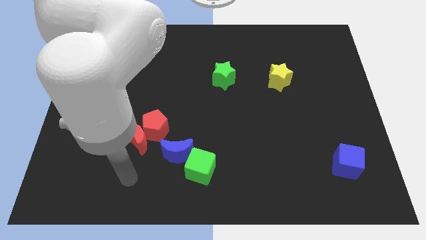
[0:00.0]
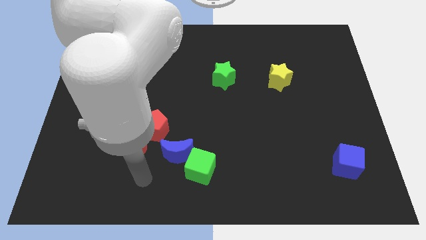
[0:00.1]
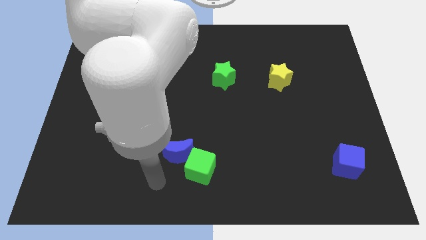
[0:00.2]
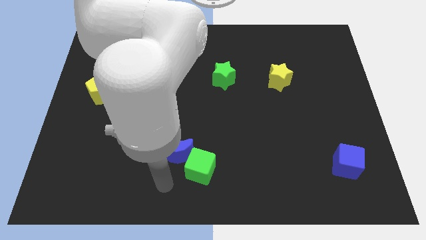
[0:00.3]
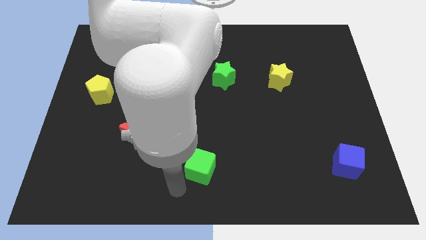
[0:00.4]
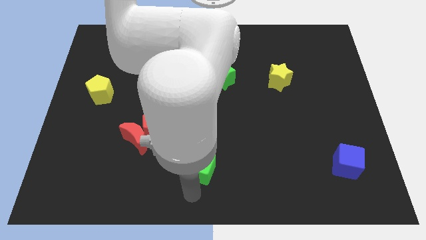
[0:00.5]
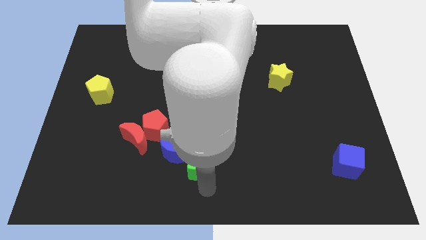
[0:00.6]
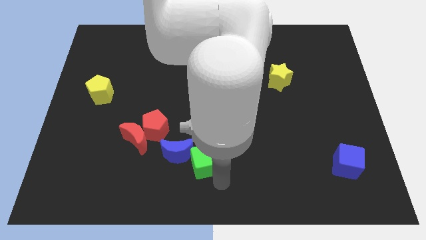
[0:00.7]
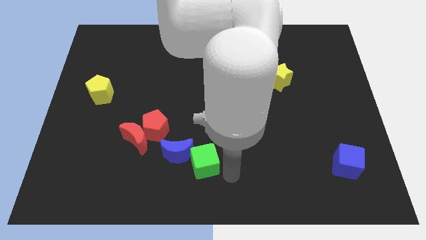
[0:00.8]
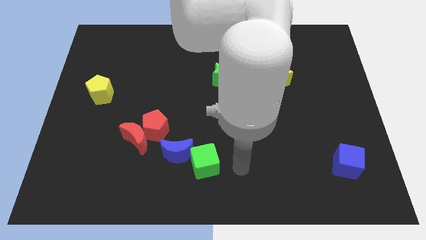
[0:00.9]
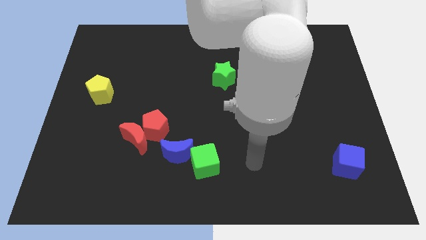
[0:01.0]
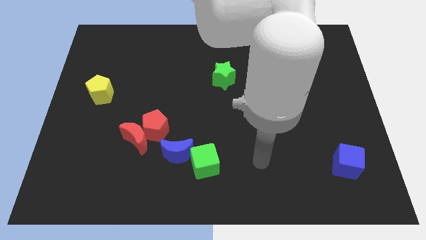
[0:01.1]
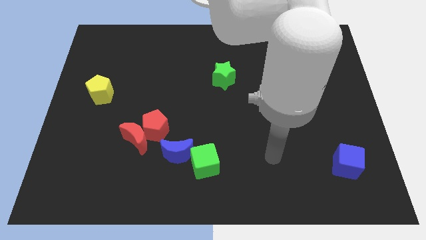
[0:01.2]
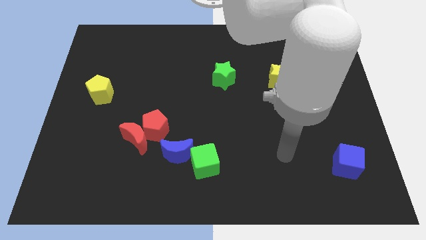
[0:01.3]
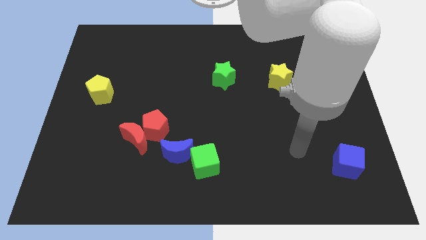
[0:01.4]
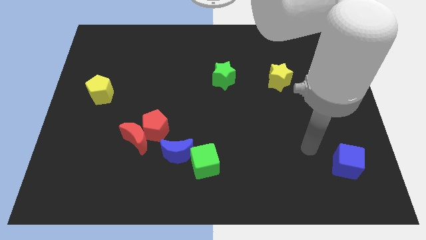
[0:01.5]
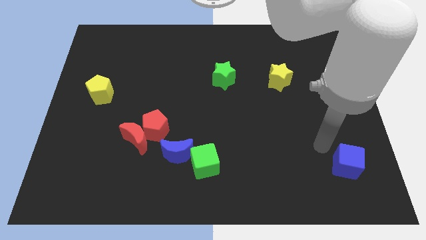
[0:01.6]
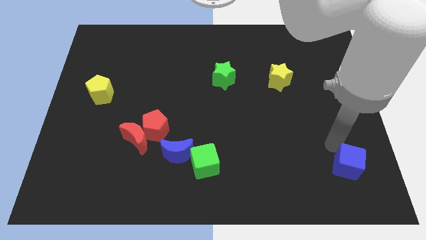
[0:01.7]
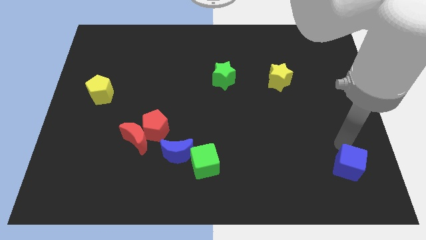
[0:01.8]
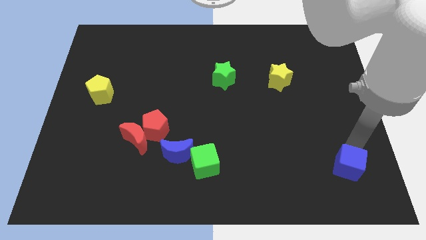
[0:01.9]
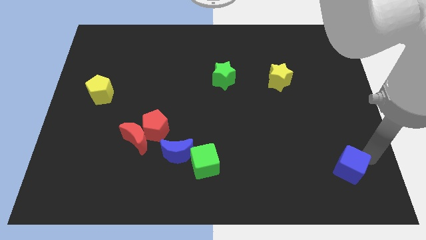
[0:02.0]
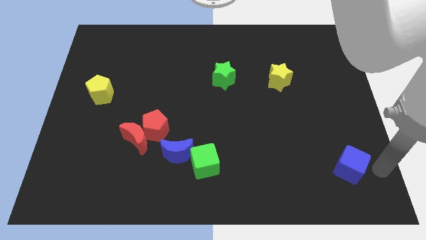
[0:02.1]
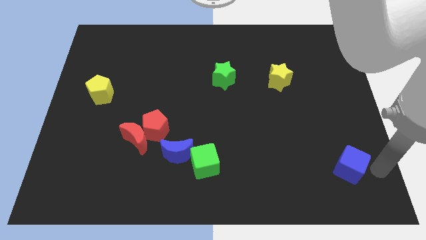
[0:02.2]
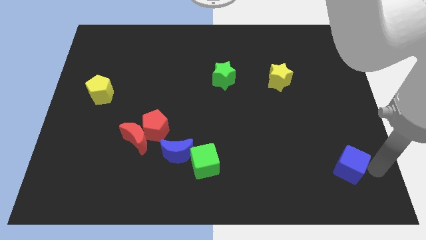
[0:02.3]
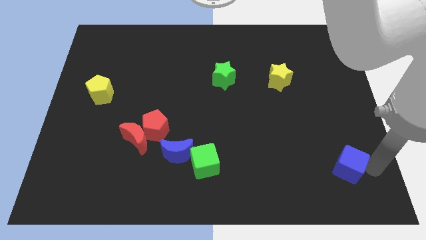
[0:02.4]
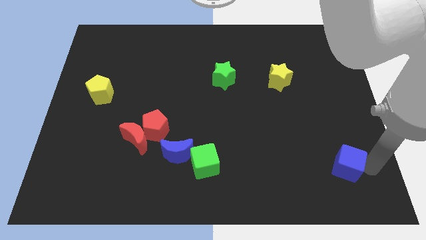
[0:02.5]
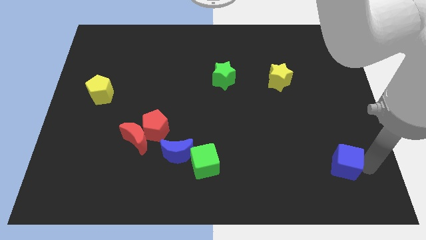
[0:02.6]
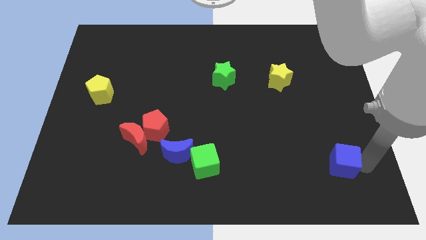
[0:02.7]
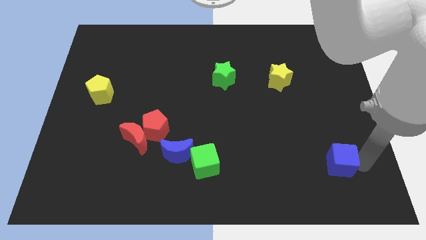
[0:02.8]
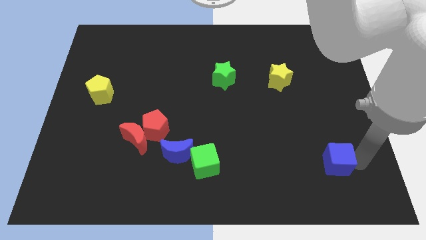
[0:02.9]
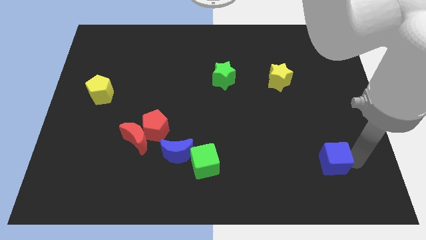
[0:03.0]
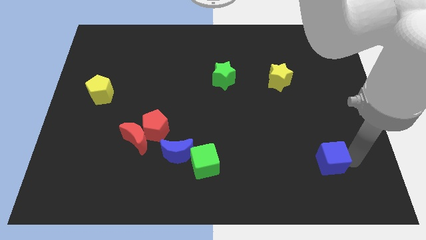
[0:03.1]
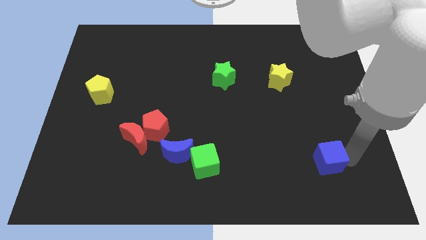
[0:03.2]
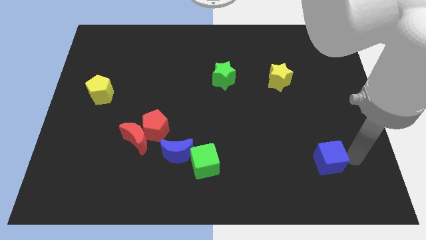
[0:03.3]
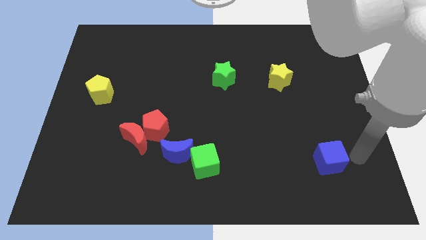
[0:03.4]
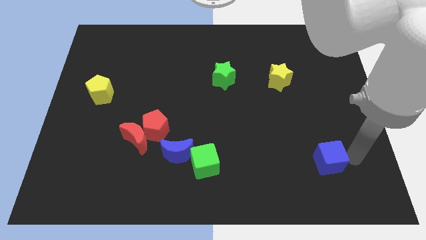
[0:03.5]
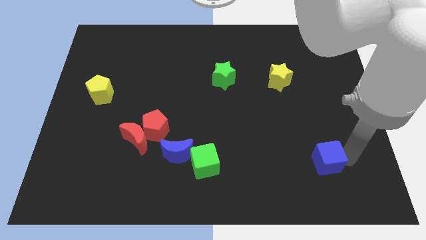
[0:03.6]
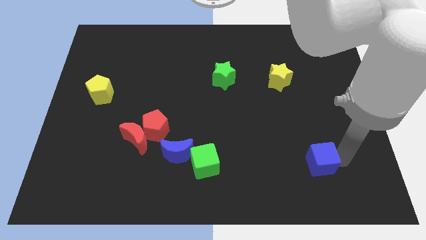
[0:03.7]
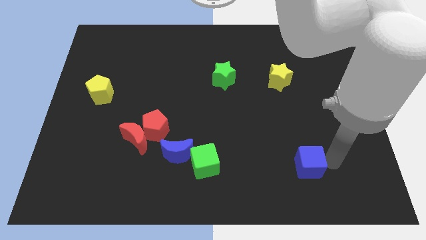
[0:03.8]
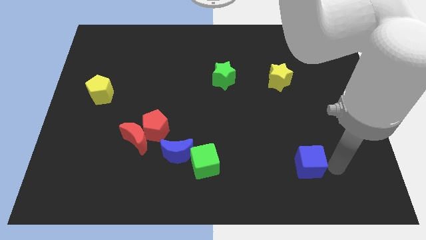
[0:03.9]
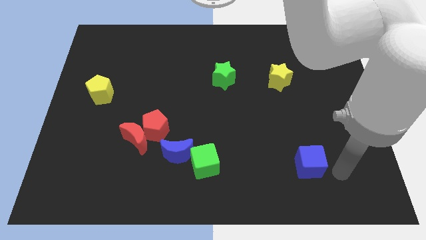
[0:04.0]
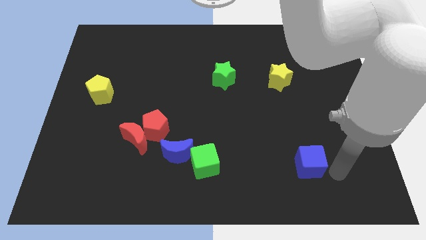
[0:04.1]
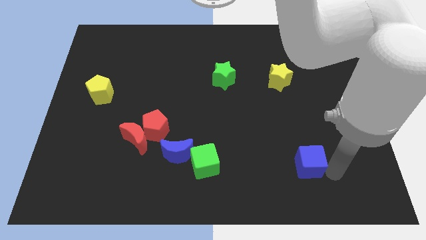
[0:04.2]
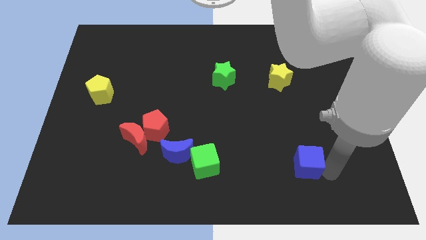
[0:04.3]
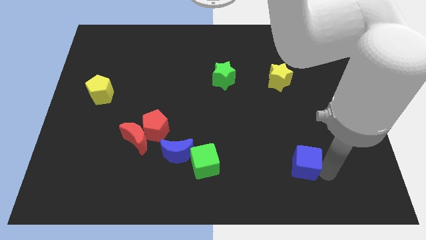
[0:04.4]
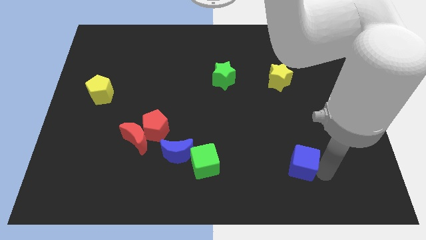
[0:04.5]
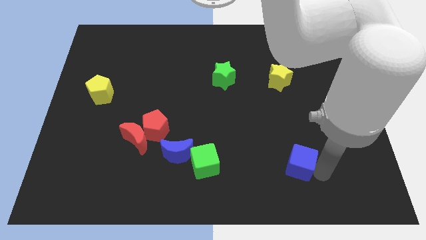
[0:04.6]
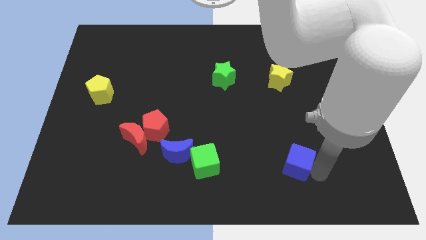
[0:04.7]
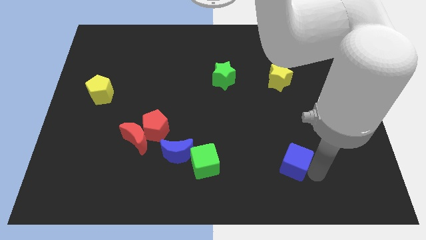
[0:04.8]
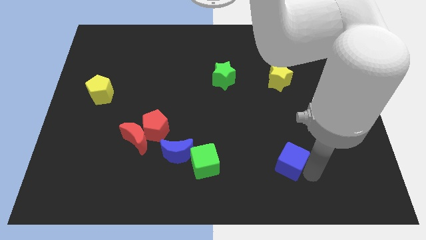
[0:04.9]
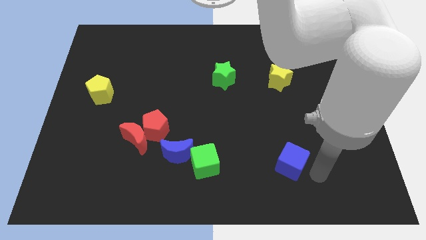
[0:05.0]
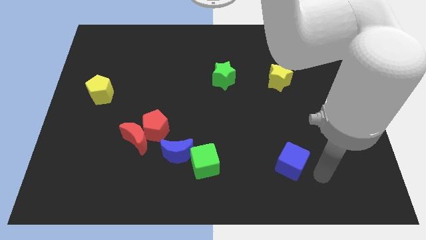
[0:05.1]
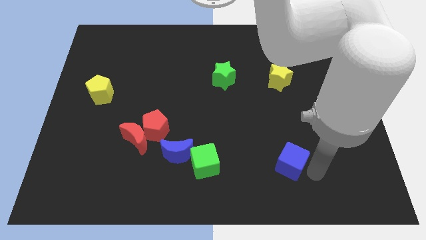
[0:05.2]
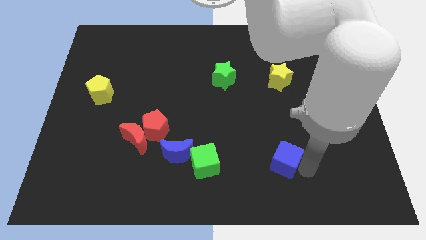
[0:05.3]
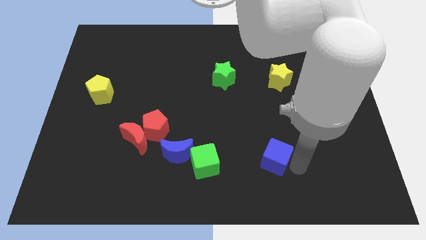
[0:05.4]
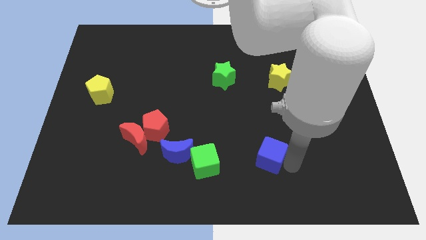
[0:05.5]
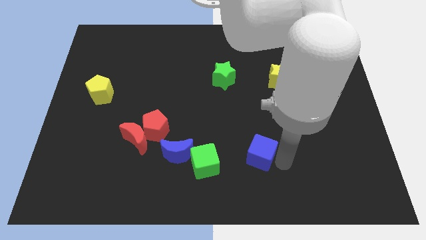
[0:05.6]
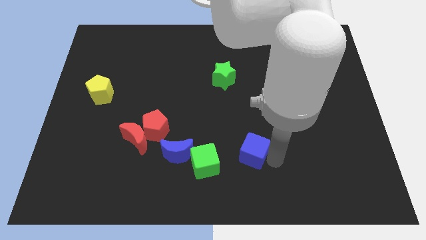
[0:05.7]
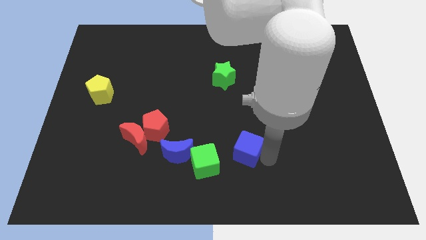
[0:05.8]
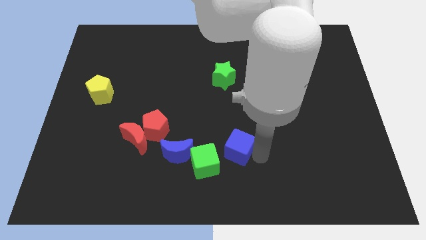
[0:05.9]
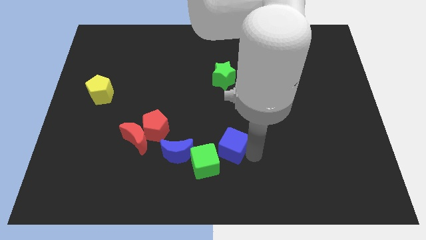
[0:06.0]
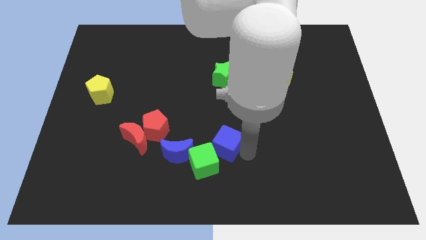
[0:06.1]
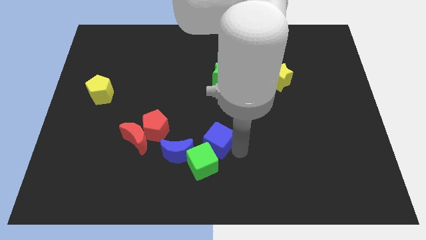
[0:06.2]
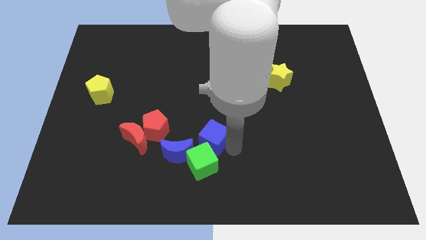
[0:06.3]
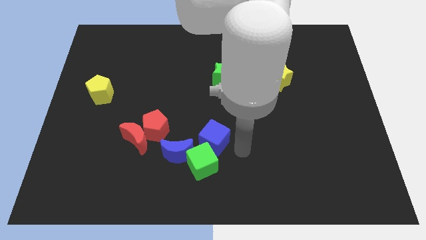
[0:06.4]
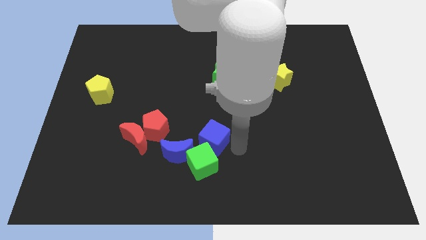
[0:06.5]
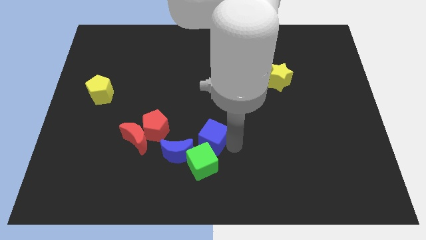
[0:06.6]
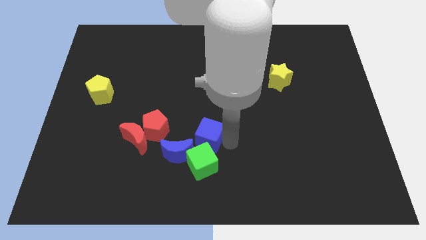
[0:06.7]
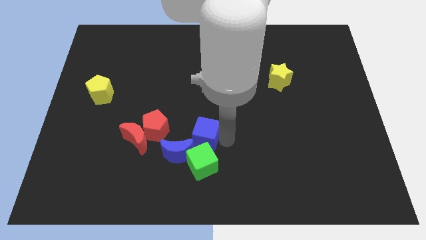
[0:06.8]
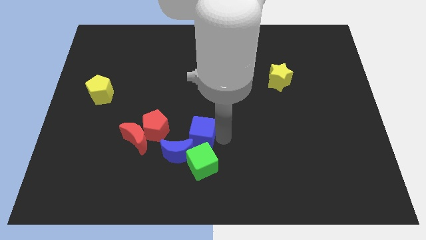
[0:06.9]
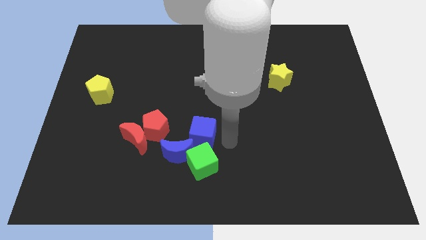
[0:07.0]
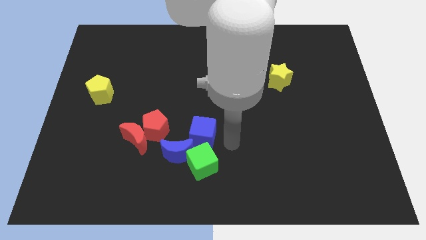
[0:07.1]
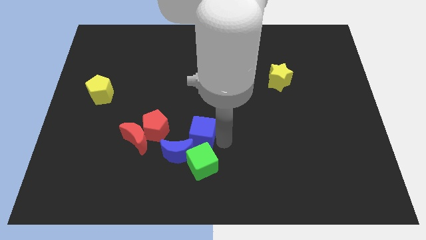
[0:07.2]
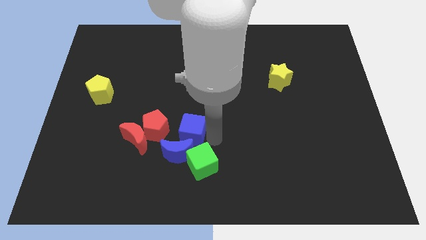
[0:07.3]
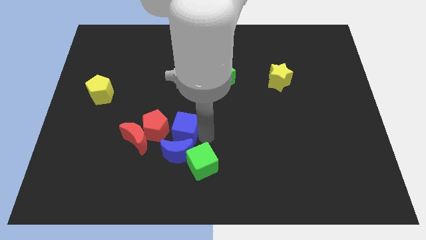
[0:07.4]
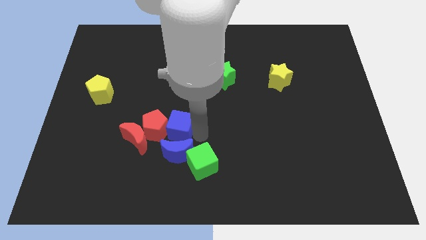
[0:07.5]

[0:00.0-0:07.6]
move the blue cube close to the red pentagon
